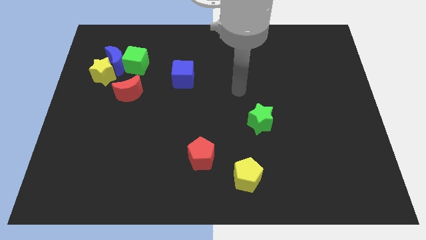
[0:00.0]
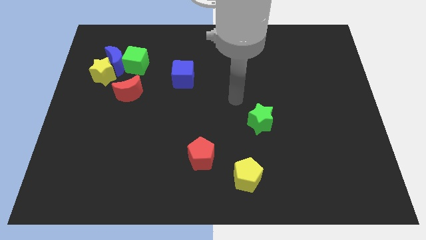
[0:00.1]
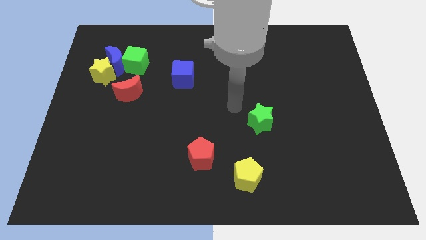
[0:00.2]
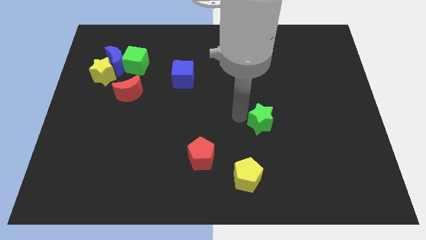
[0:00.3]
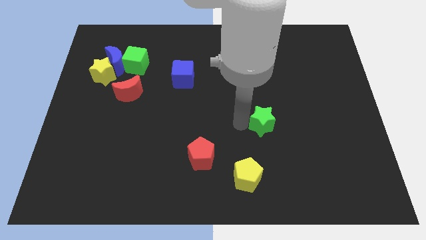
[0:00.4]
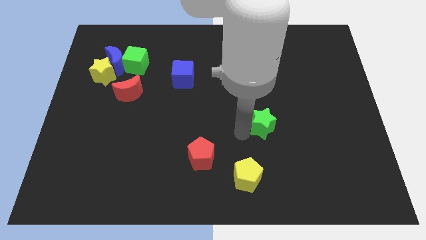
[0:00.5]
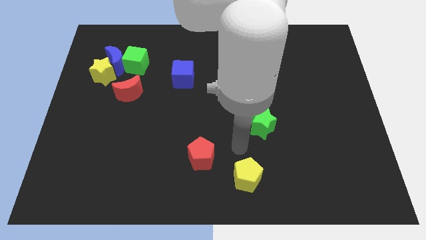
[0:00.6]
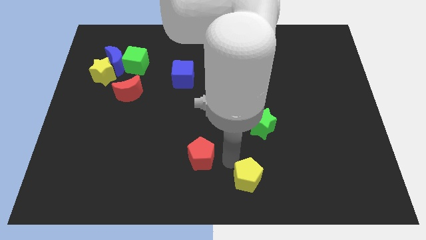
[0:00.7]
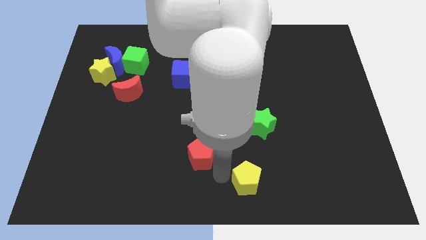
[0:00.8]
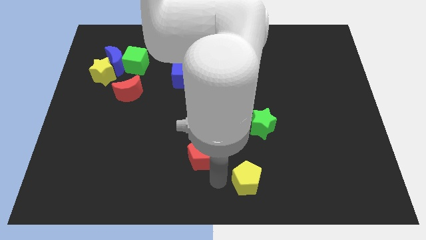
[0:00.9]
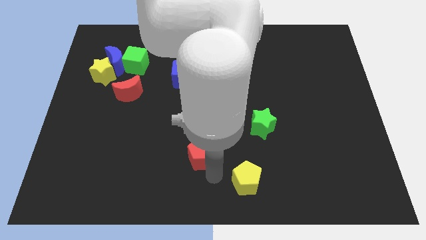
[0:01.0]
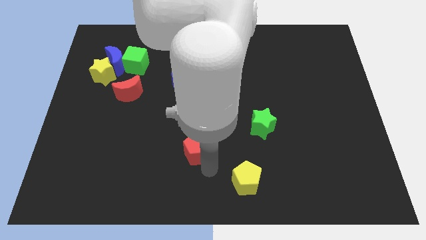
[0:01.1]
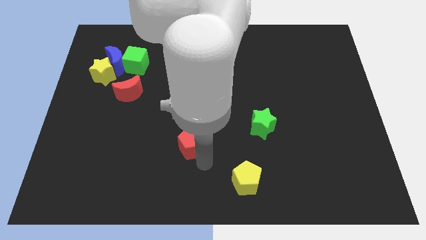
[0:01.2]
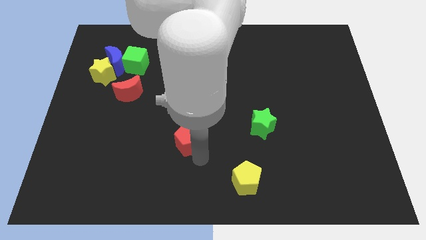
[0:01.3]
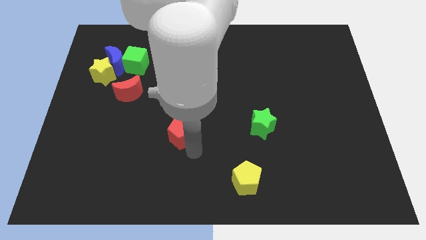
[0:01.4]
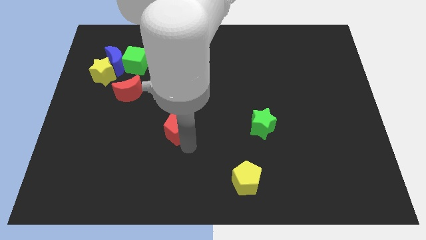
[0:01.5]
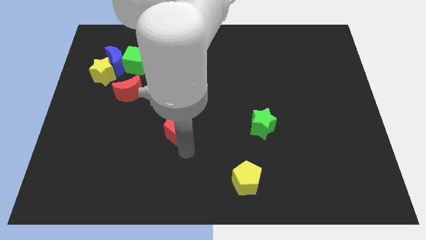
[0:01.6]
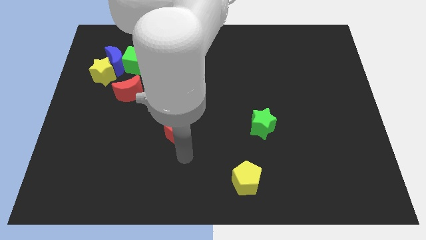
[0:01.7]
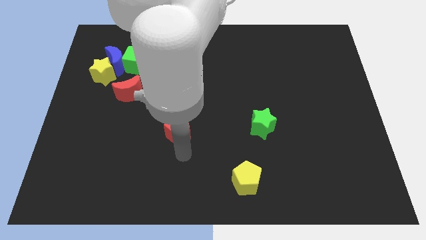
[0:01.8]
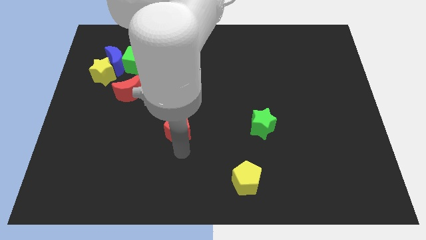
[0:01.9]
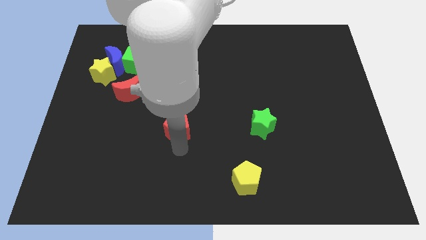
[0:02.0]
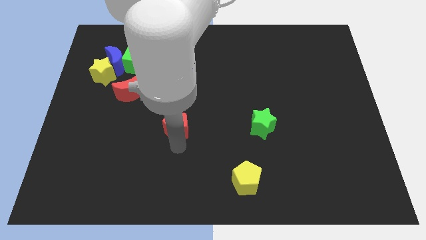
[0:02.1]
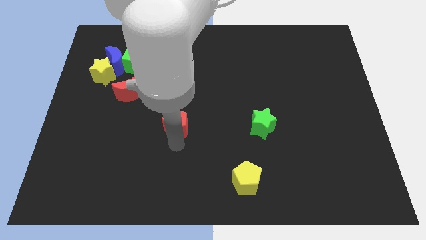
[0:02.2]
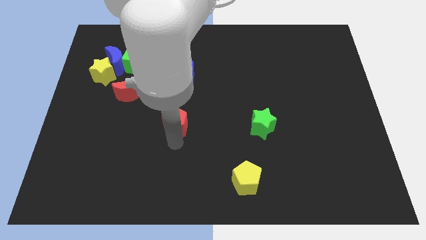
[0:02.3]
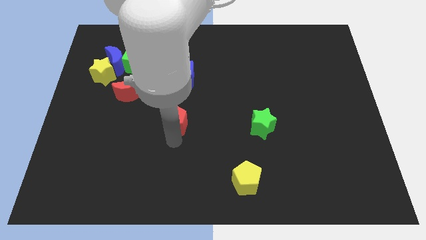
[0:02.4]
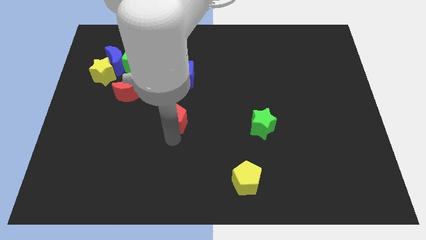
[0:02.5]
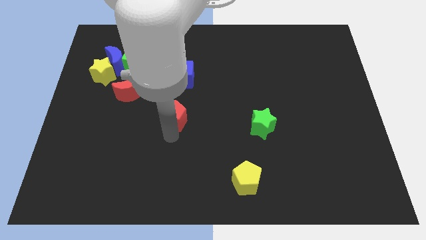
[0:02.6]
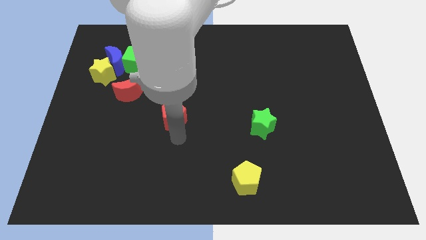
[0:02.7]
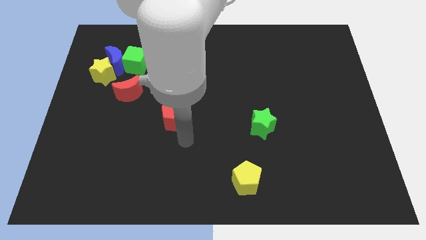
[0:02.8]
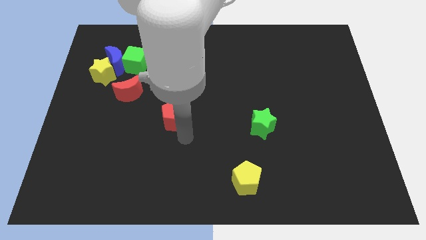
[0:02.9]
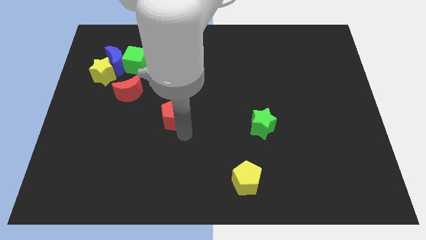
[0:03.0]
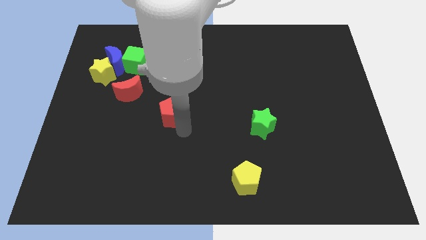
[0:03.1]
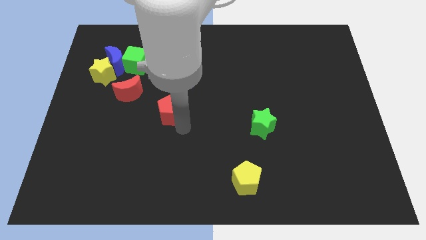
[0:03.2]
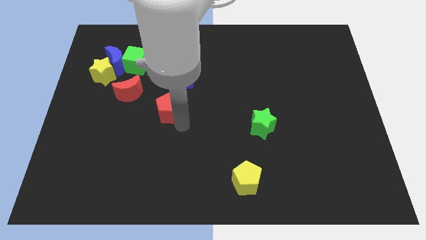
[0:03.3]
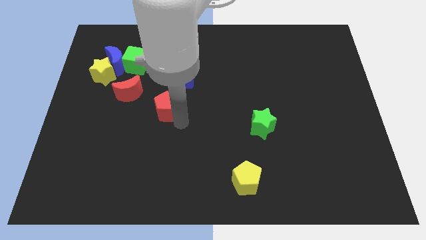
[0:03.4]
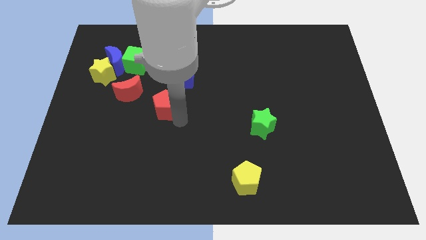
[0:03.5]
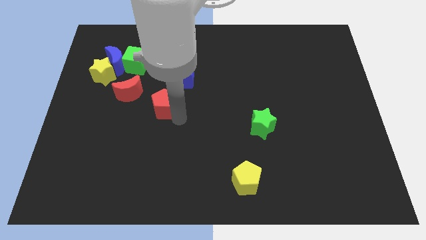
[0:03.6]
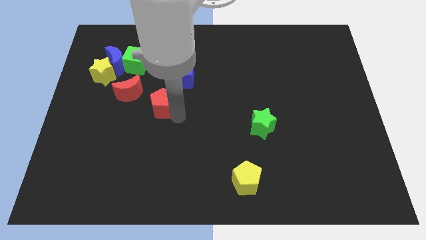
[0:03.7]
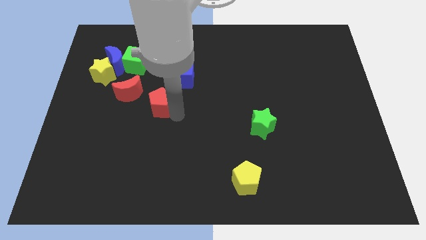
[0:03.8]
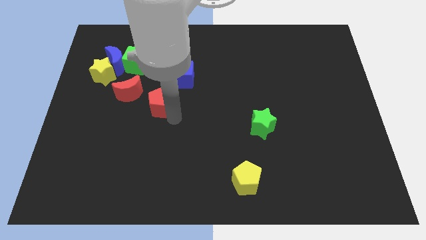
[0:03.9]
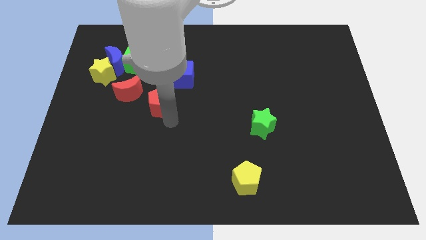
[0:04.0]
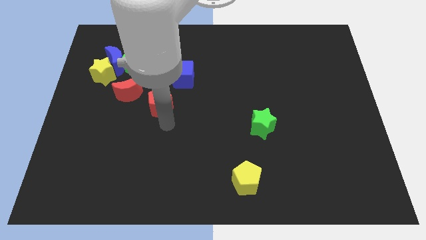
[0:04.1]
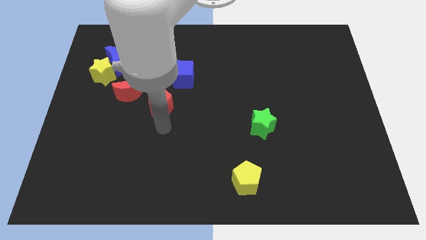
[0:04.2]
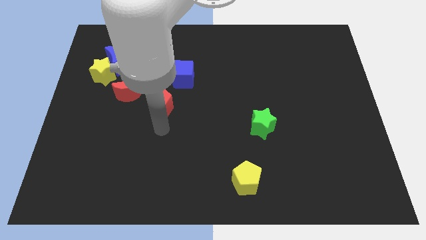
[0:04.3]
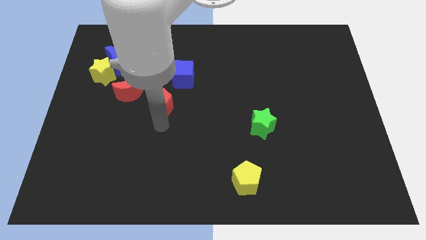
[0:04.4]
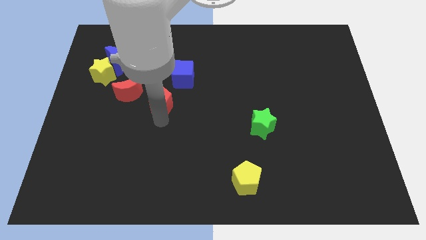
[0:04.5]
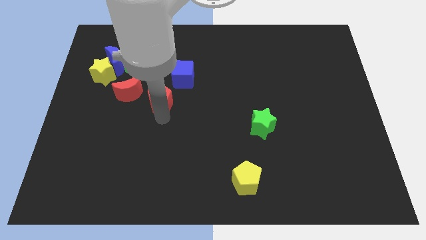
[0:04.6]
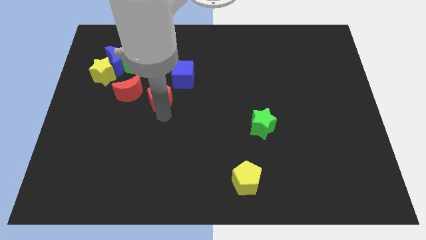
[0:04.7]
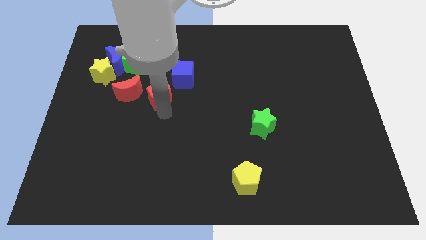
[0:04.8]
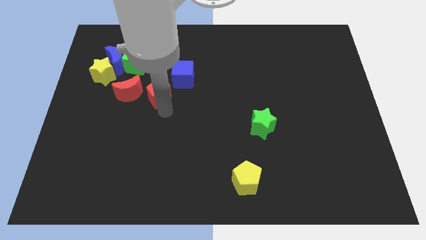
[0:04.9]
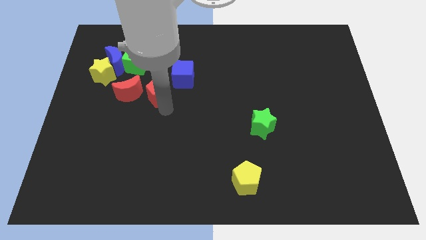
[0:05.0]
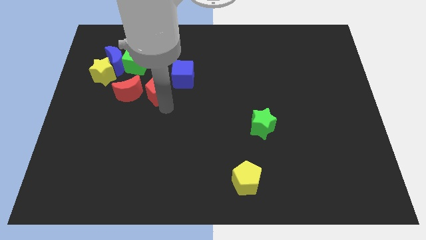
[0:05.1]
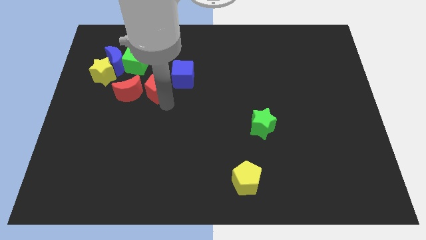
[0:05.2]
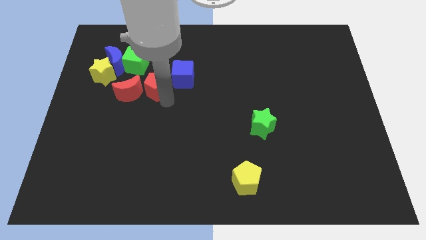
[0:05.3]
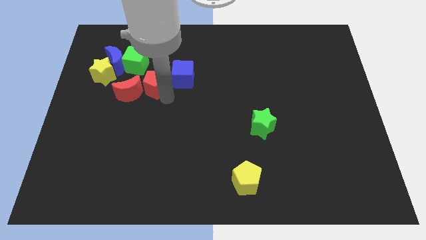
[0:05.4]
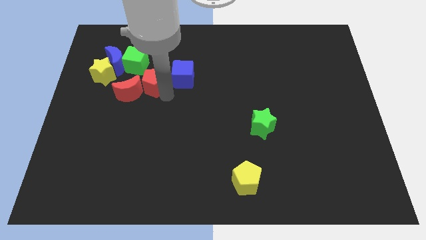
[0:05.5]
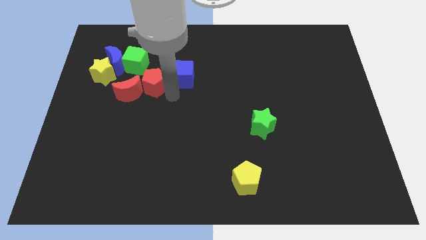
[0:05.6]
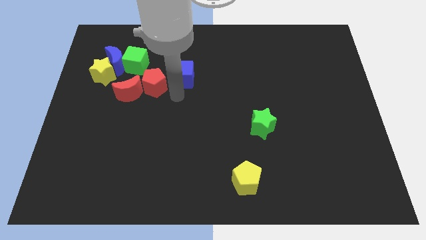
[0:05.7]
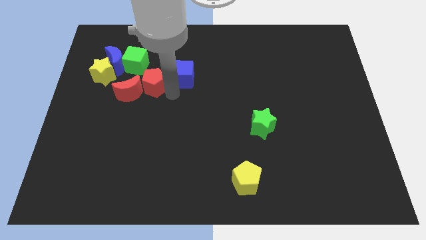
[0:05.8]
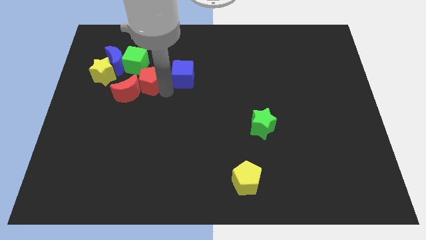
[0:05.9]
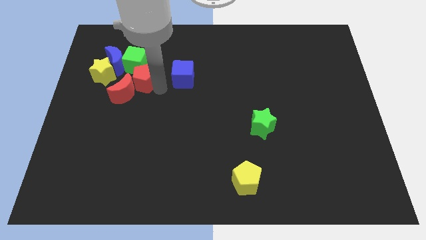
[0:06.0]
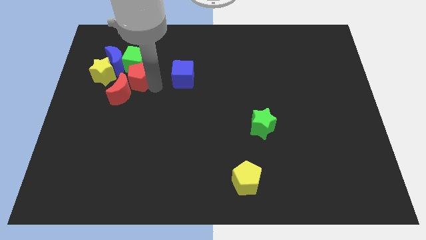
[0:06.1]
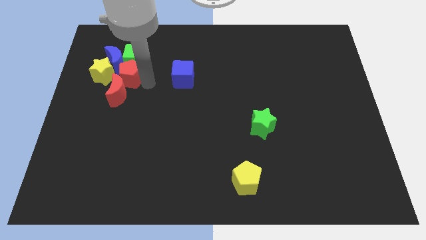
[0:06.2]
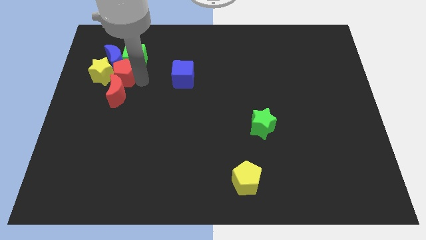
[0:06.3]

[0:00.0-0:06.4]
push the red pentagon close to the yellow star

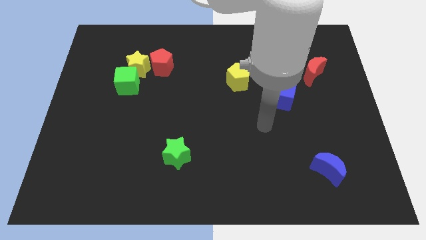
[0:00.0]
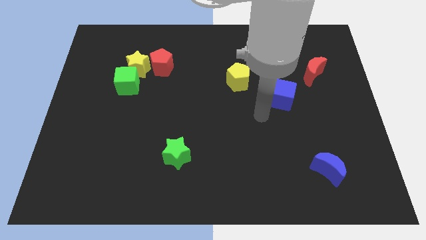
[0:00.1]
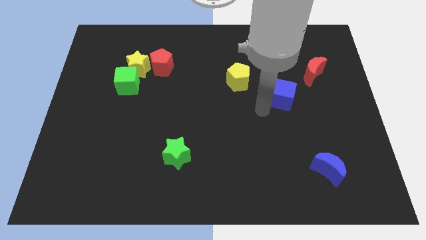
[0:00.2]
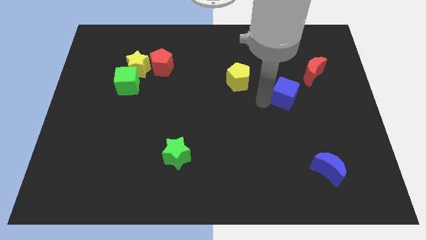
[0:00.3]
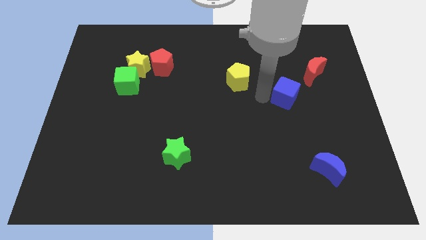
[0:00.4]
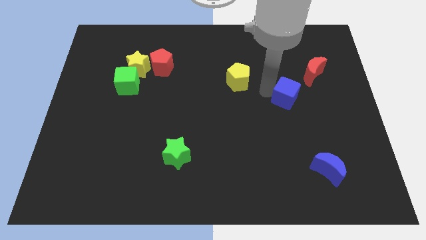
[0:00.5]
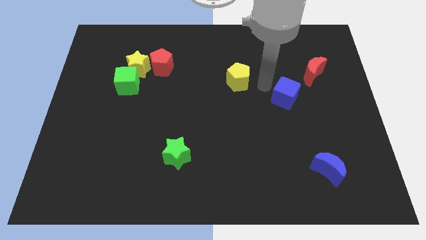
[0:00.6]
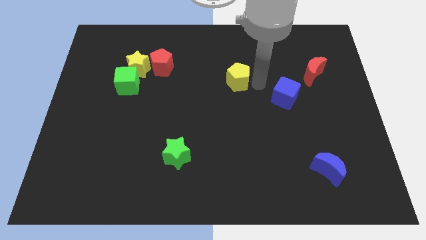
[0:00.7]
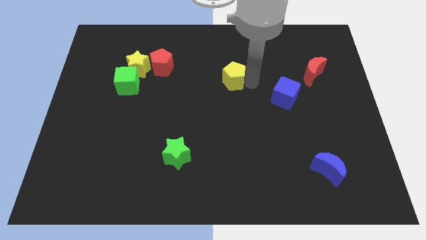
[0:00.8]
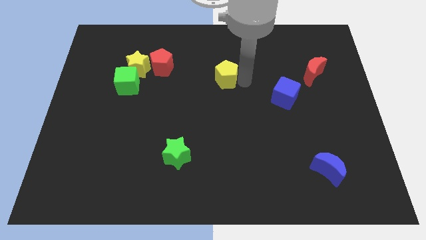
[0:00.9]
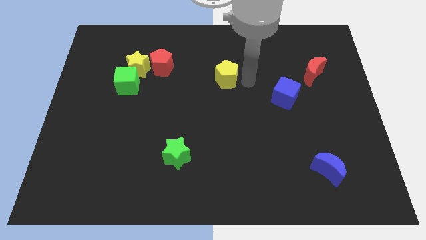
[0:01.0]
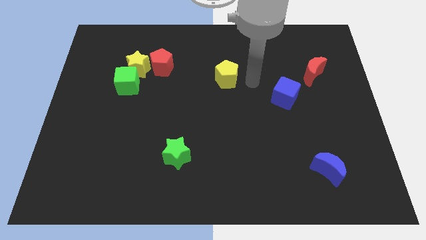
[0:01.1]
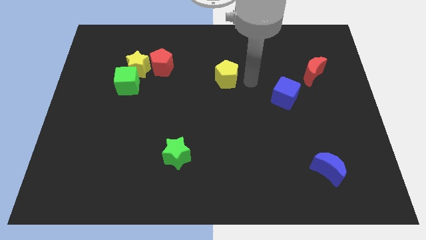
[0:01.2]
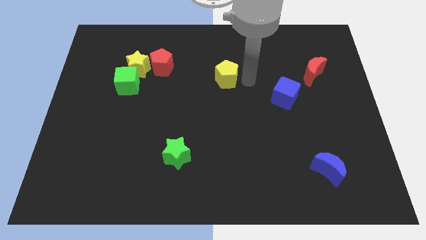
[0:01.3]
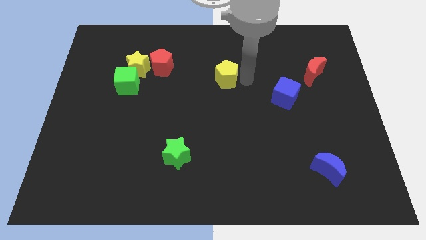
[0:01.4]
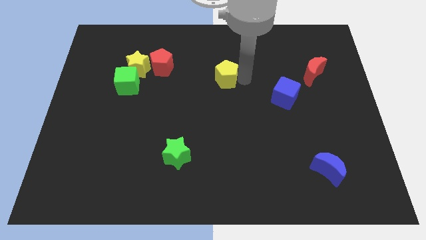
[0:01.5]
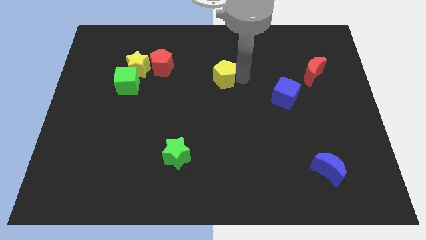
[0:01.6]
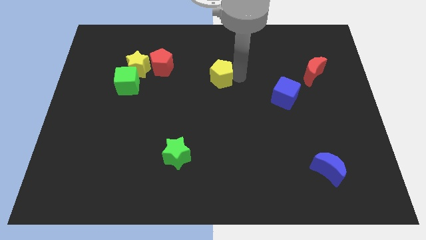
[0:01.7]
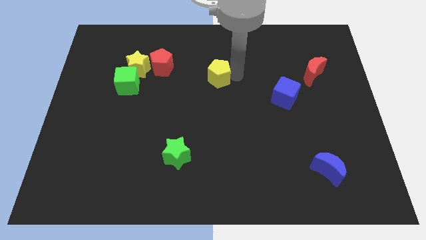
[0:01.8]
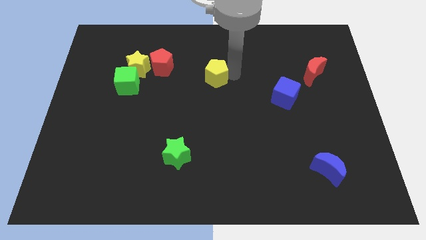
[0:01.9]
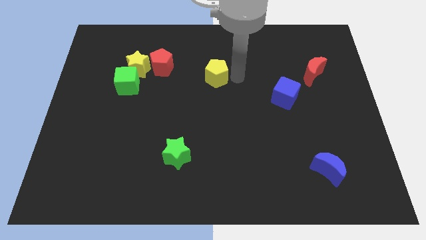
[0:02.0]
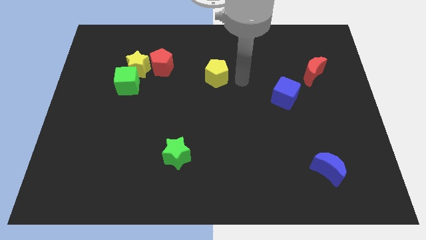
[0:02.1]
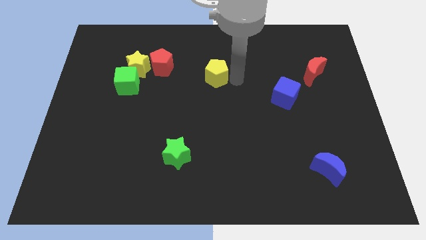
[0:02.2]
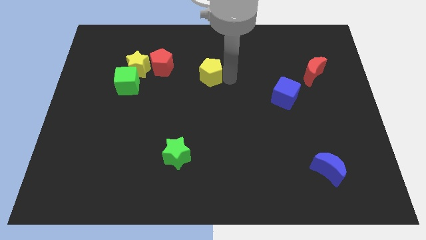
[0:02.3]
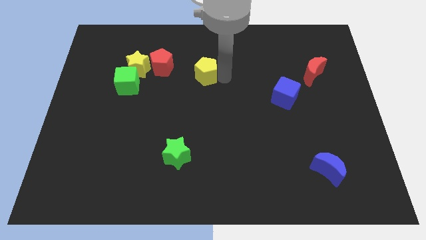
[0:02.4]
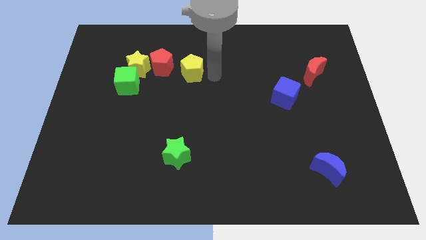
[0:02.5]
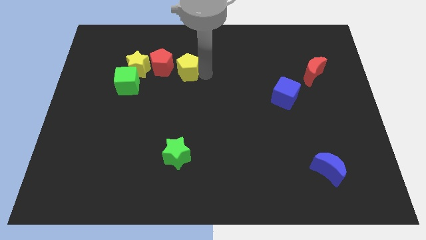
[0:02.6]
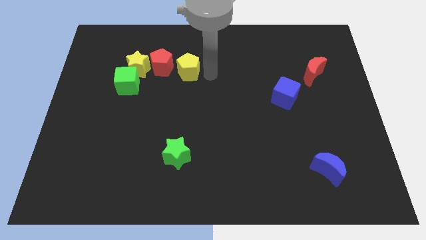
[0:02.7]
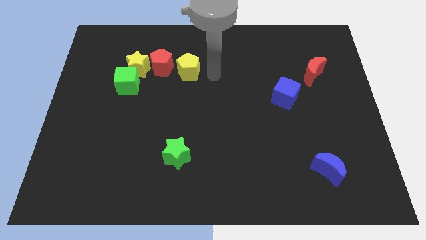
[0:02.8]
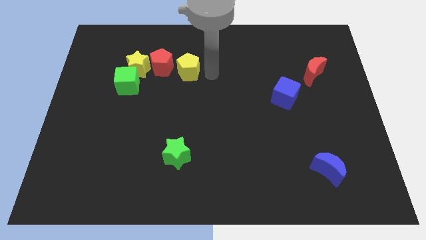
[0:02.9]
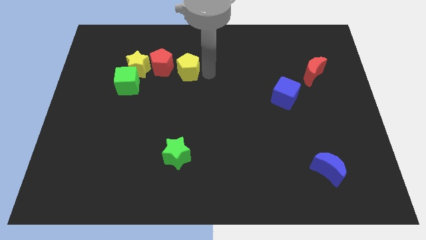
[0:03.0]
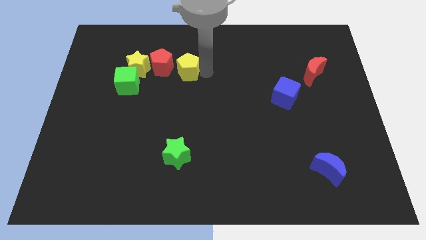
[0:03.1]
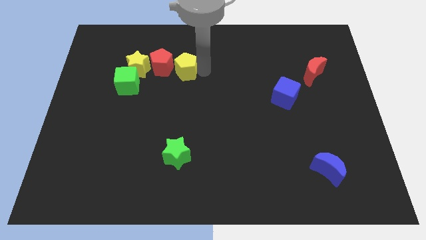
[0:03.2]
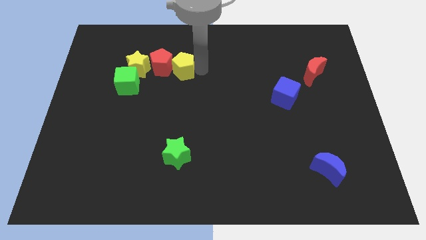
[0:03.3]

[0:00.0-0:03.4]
put the yellow pentagon towards the red pentagon
